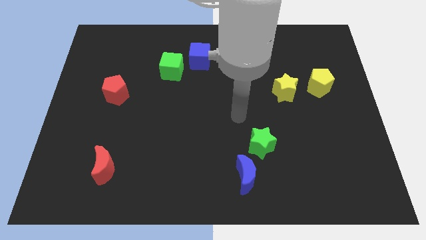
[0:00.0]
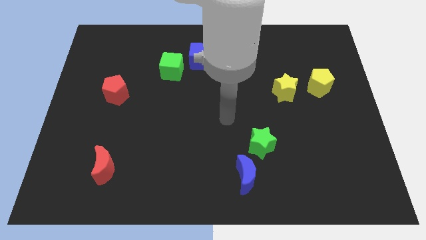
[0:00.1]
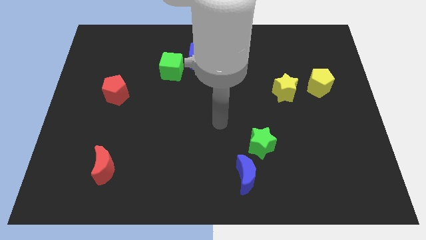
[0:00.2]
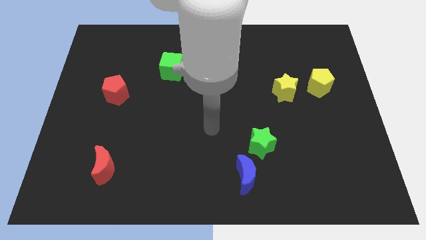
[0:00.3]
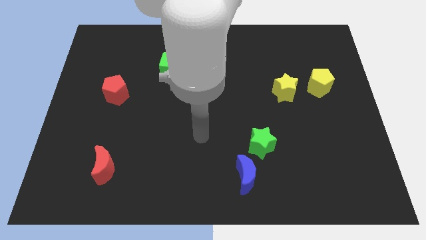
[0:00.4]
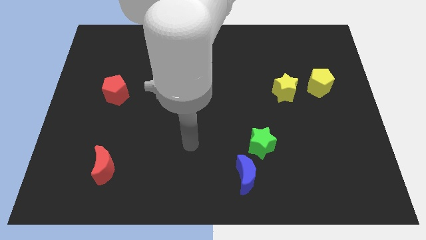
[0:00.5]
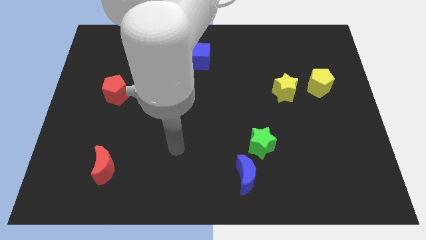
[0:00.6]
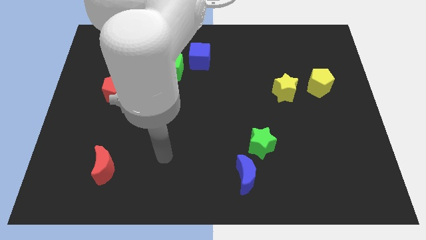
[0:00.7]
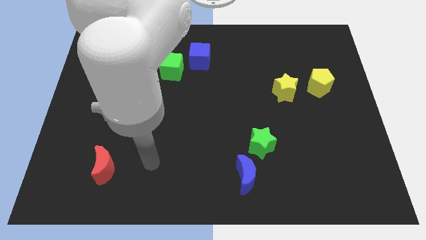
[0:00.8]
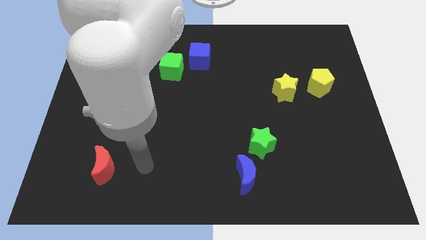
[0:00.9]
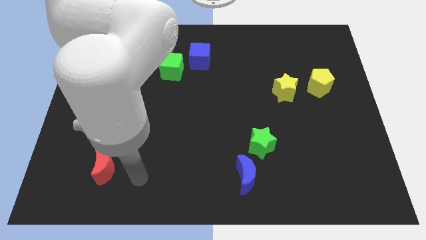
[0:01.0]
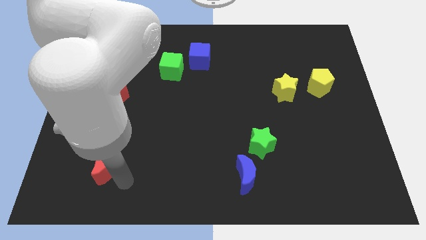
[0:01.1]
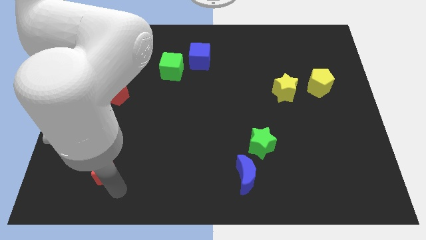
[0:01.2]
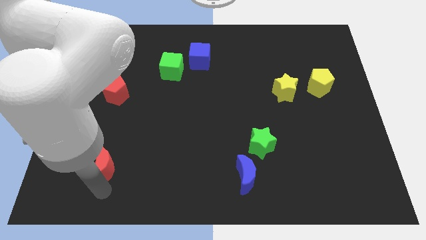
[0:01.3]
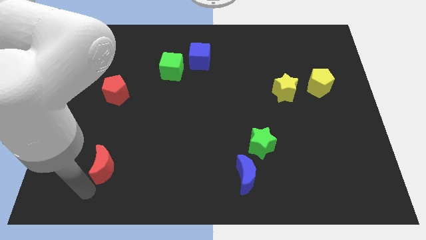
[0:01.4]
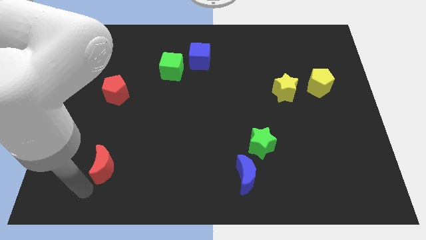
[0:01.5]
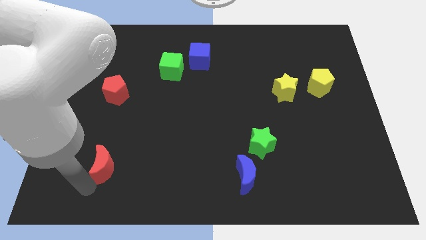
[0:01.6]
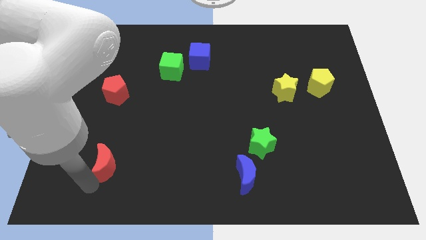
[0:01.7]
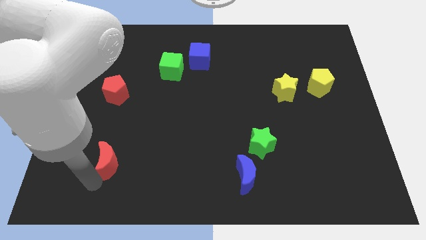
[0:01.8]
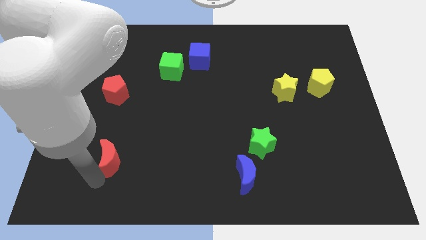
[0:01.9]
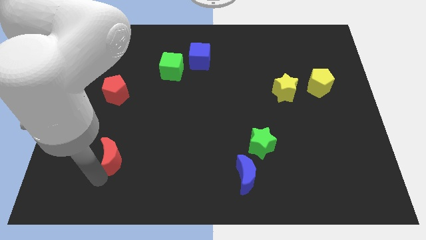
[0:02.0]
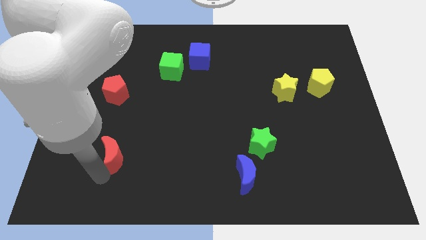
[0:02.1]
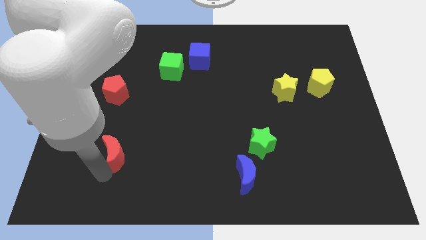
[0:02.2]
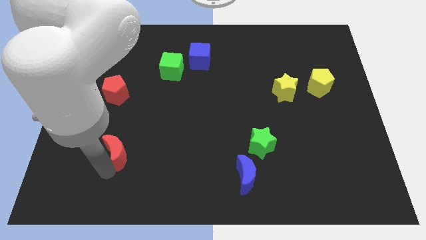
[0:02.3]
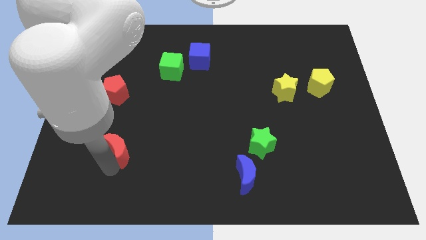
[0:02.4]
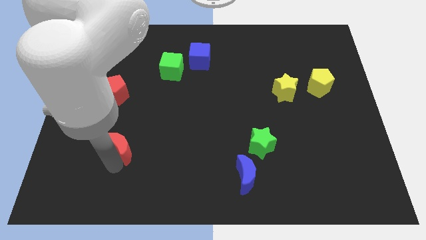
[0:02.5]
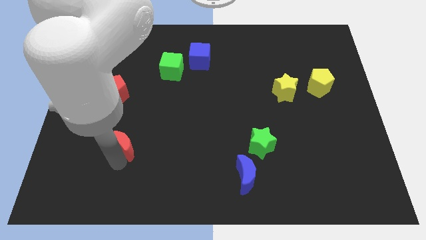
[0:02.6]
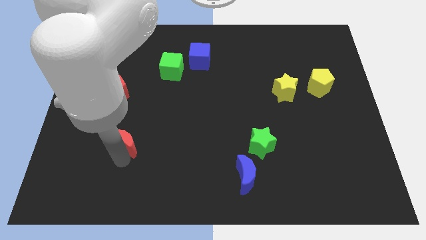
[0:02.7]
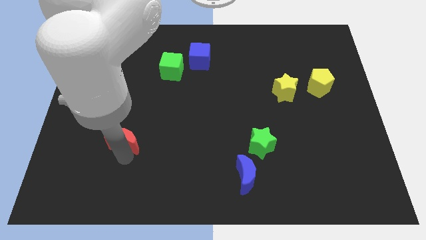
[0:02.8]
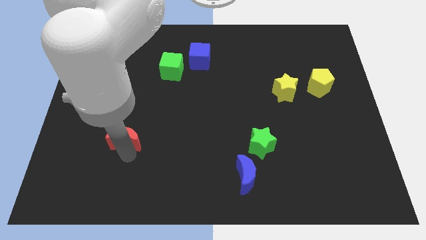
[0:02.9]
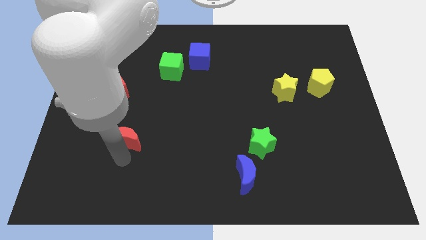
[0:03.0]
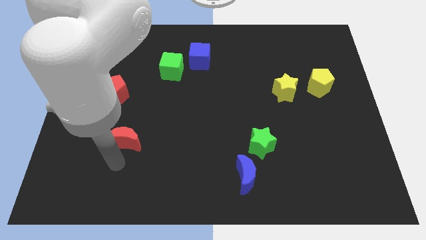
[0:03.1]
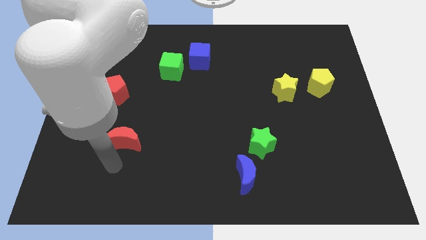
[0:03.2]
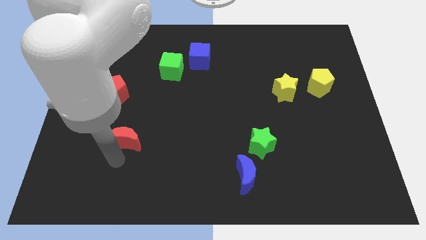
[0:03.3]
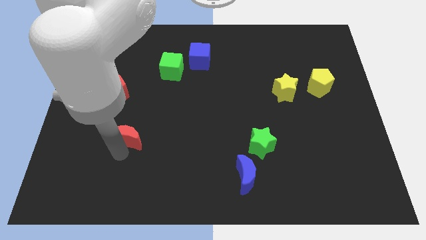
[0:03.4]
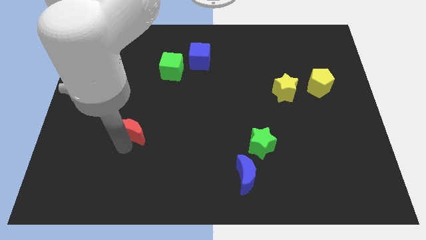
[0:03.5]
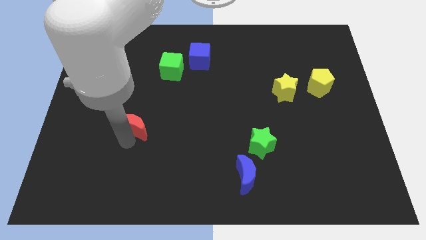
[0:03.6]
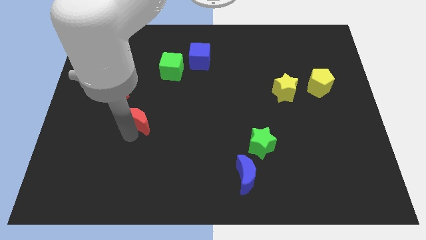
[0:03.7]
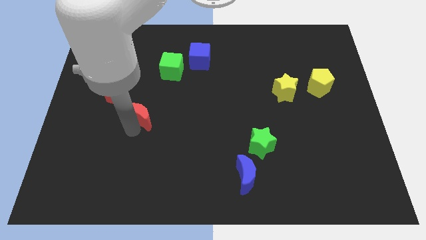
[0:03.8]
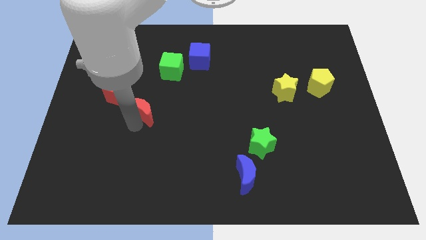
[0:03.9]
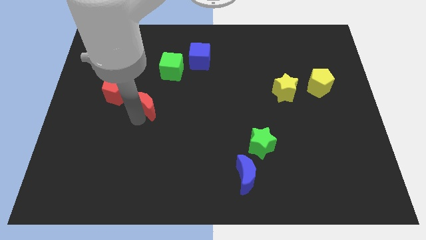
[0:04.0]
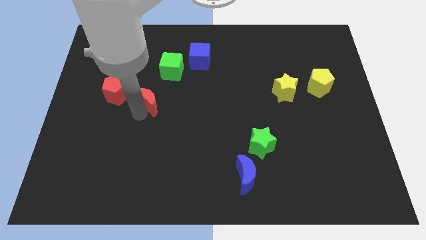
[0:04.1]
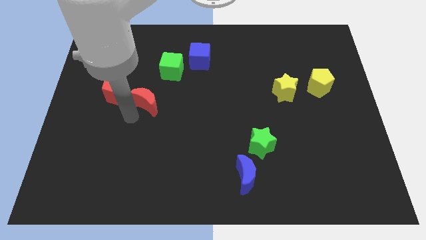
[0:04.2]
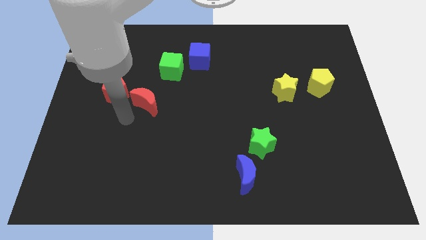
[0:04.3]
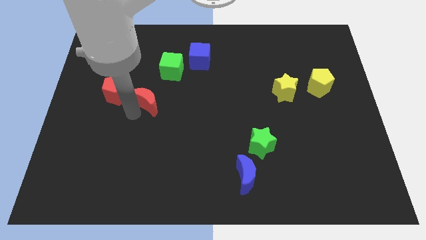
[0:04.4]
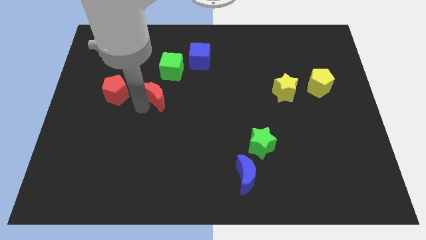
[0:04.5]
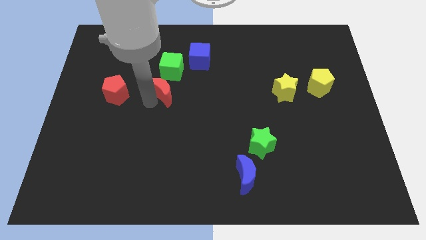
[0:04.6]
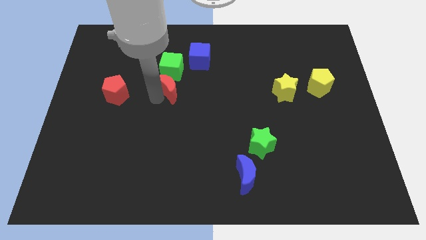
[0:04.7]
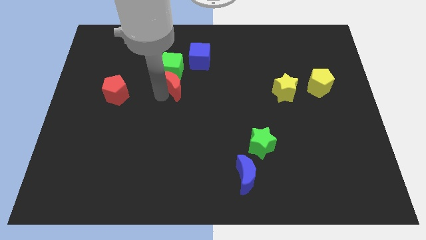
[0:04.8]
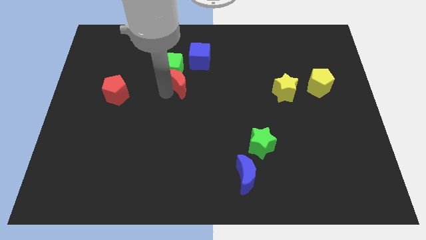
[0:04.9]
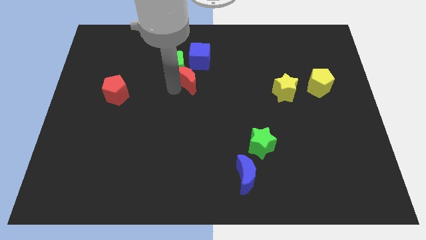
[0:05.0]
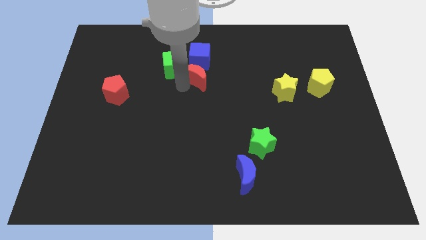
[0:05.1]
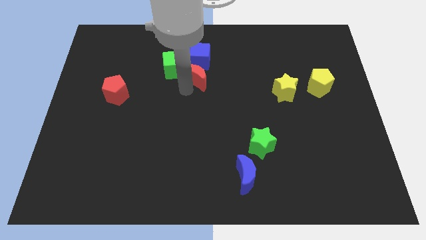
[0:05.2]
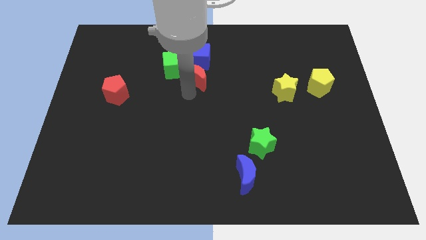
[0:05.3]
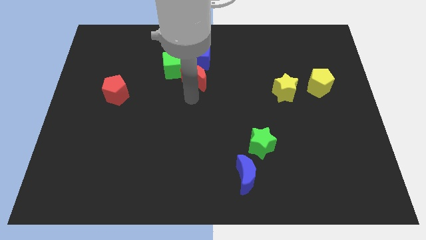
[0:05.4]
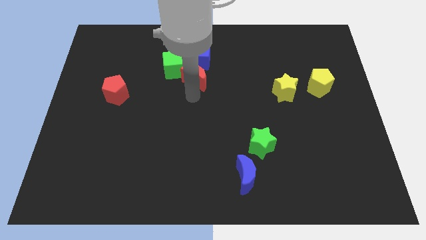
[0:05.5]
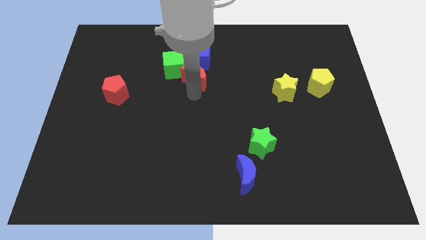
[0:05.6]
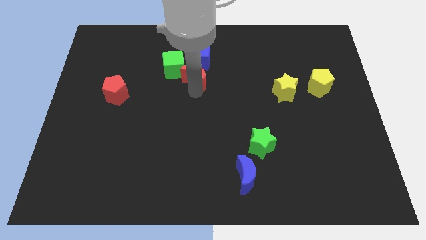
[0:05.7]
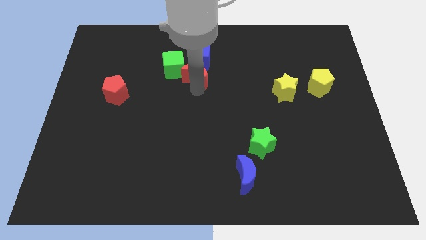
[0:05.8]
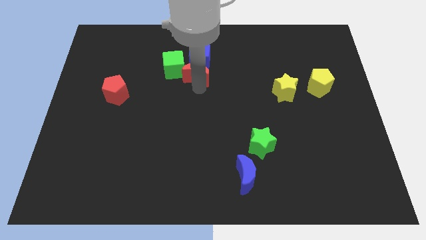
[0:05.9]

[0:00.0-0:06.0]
move the red moon next to the blue cube

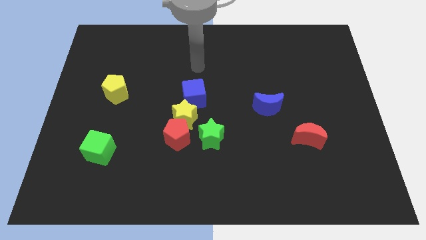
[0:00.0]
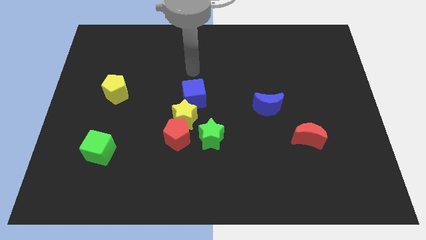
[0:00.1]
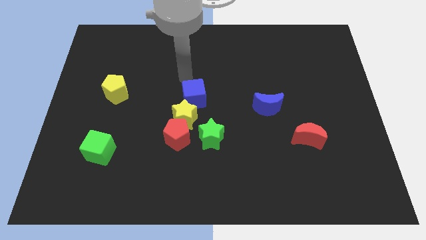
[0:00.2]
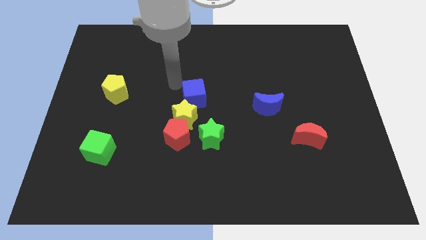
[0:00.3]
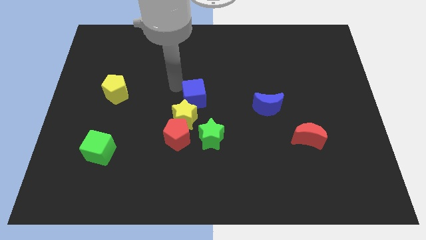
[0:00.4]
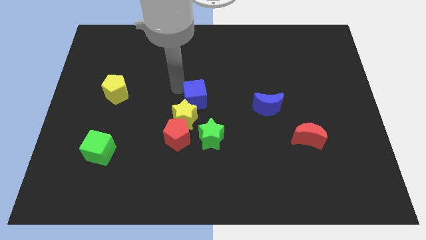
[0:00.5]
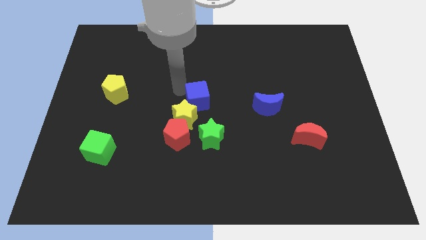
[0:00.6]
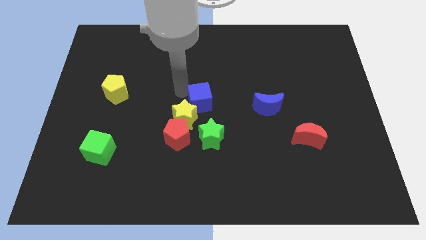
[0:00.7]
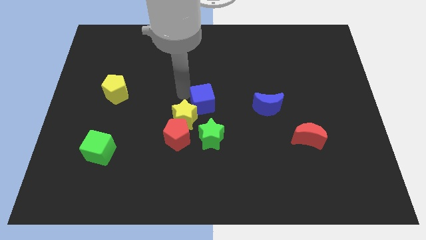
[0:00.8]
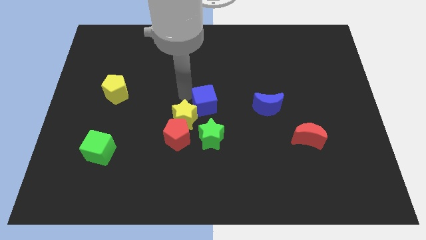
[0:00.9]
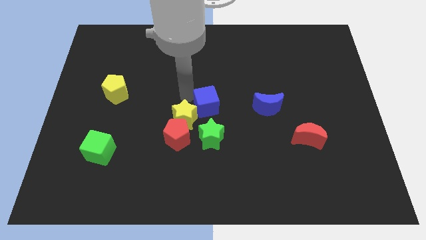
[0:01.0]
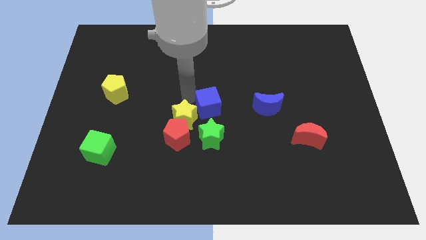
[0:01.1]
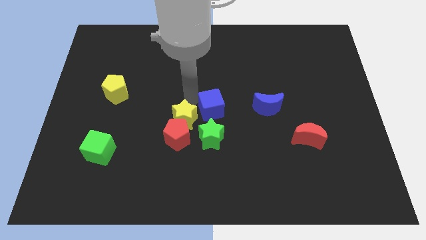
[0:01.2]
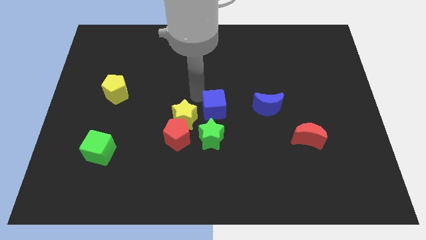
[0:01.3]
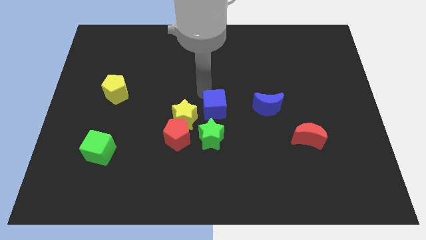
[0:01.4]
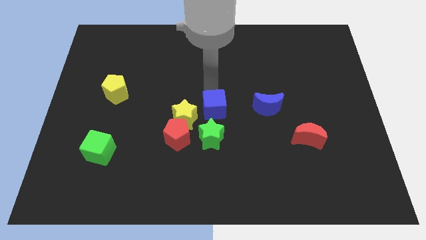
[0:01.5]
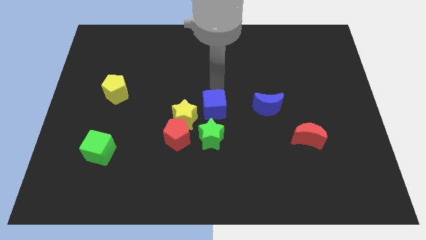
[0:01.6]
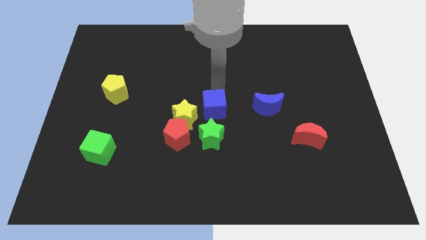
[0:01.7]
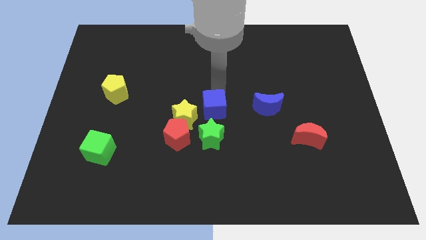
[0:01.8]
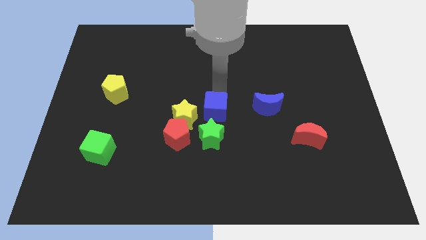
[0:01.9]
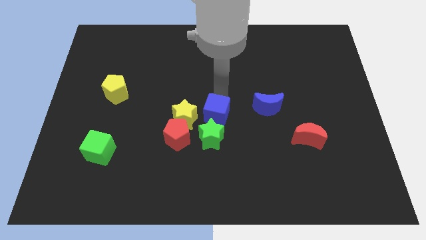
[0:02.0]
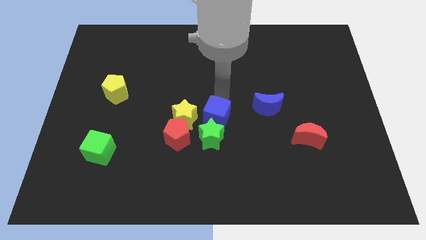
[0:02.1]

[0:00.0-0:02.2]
slide the blue cube to the green star
